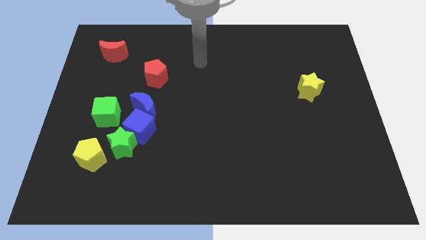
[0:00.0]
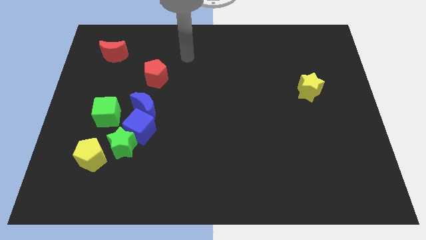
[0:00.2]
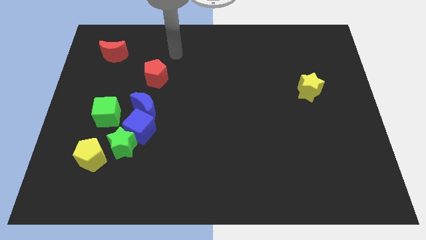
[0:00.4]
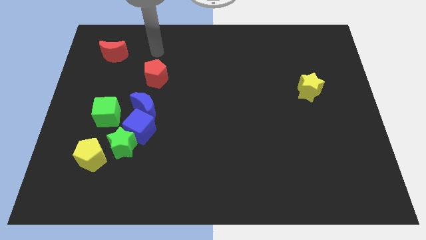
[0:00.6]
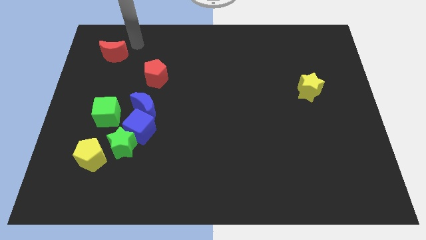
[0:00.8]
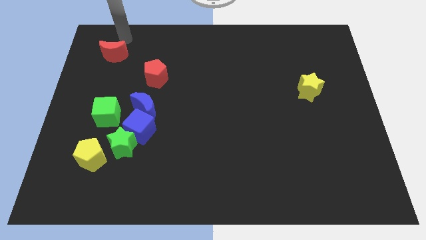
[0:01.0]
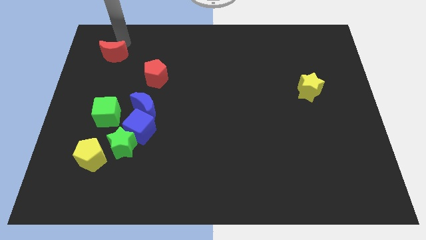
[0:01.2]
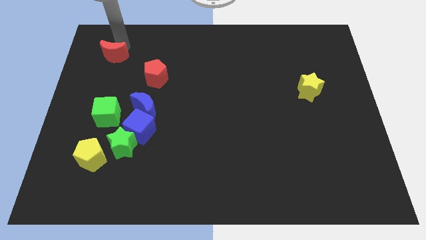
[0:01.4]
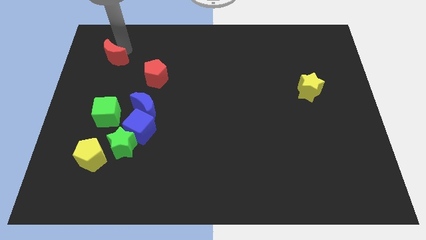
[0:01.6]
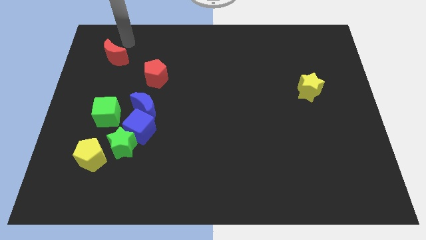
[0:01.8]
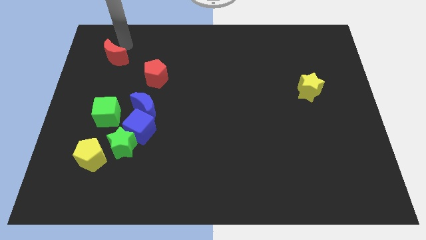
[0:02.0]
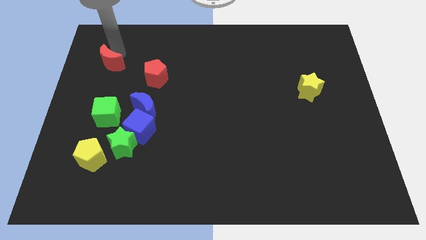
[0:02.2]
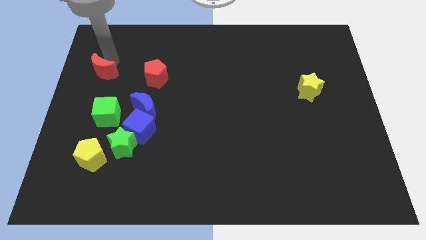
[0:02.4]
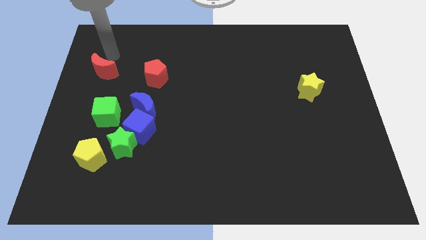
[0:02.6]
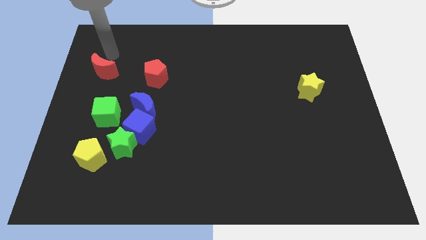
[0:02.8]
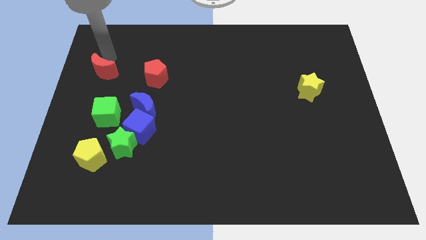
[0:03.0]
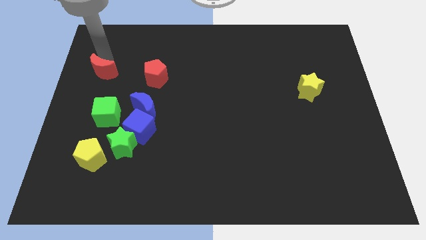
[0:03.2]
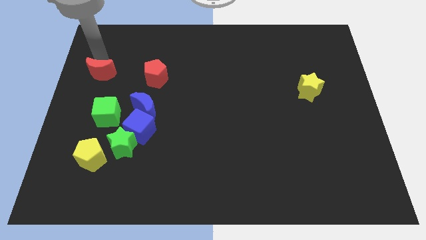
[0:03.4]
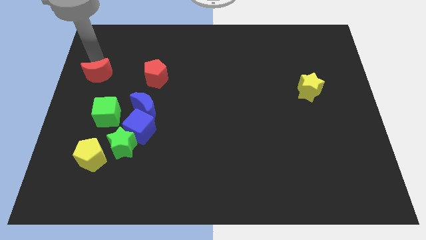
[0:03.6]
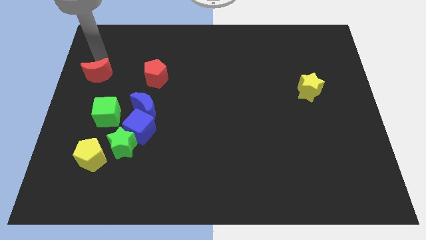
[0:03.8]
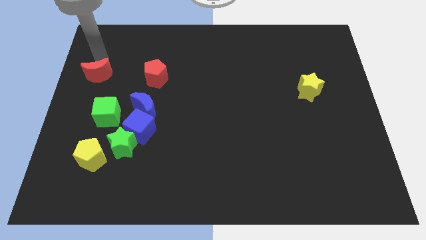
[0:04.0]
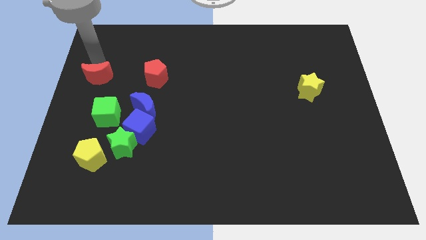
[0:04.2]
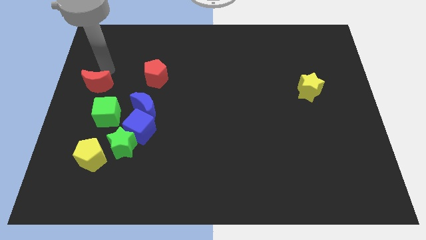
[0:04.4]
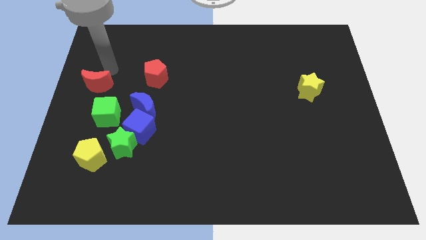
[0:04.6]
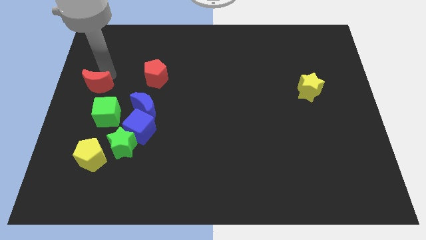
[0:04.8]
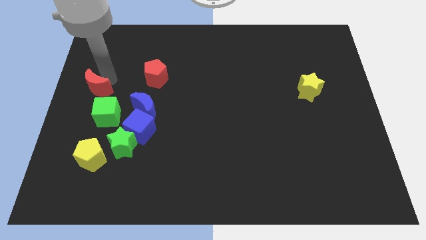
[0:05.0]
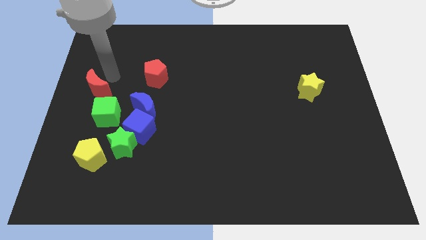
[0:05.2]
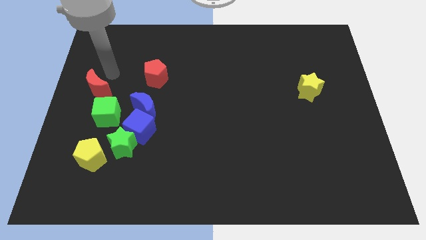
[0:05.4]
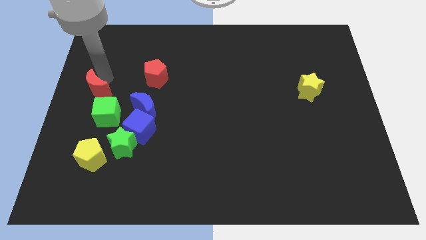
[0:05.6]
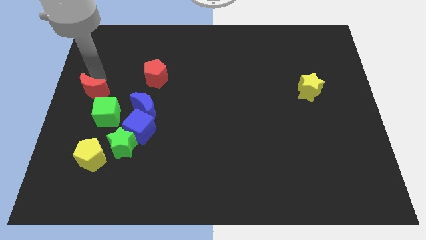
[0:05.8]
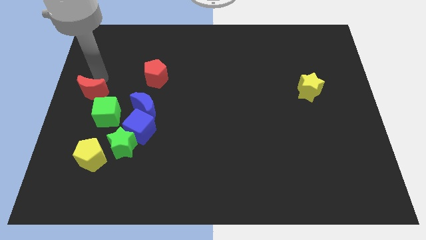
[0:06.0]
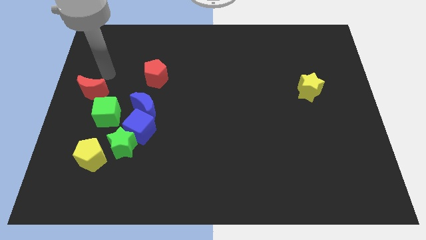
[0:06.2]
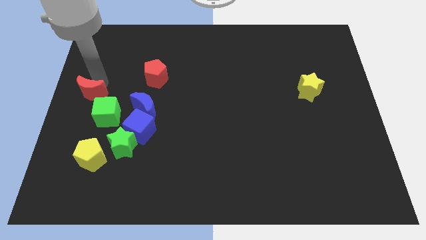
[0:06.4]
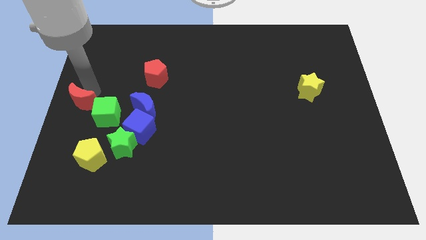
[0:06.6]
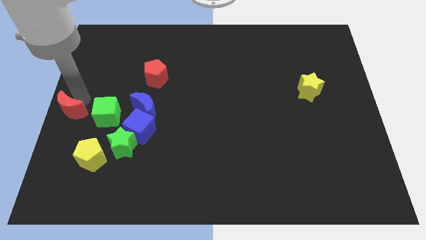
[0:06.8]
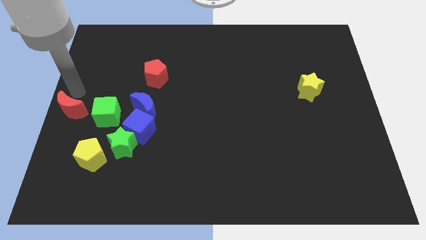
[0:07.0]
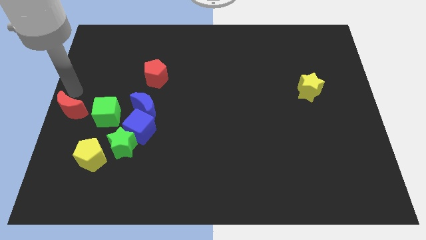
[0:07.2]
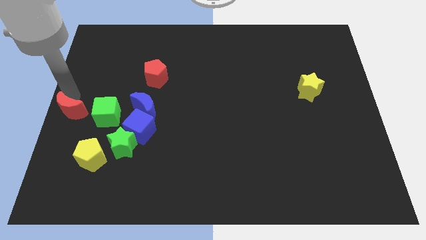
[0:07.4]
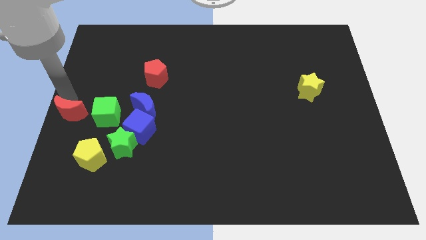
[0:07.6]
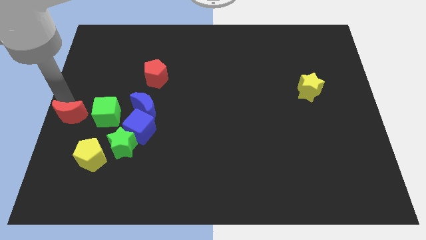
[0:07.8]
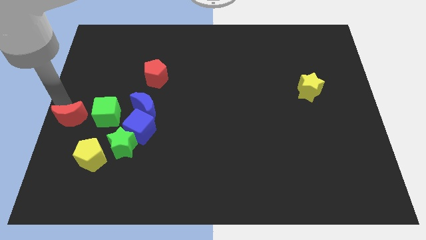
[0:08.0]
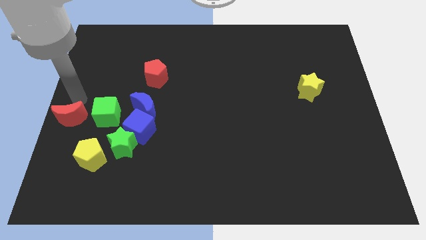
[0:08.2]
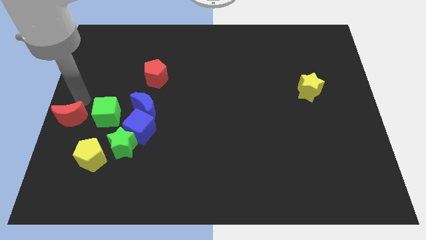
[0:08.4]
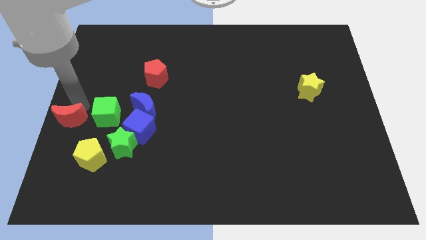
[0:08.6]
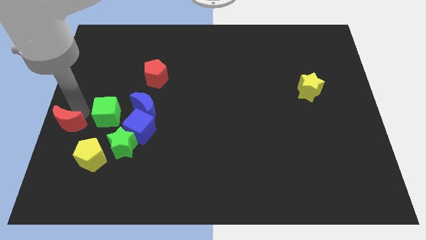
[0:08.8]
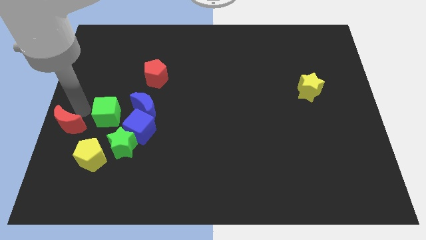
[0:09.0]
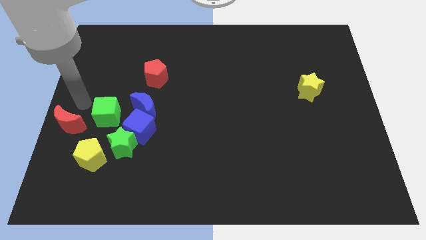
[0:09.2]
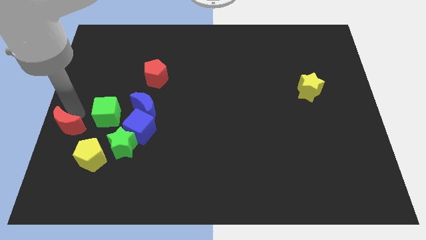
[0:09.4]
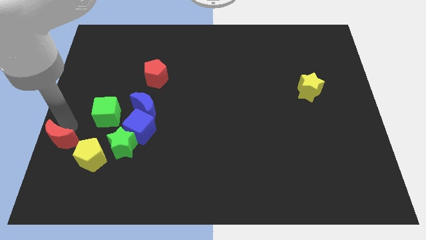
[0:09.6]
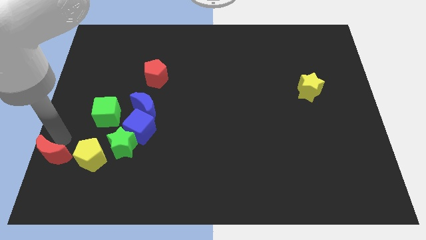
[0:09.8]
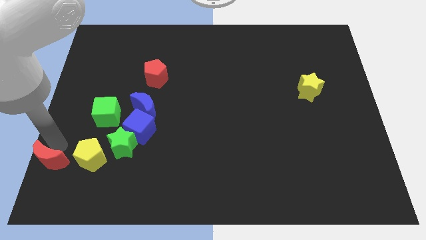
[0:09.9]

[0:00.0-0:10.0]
push the red moon to the bottom left of the board

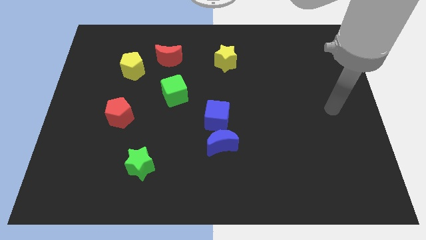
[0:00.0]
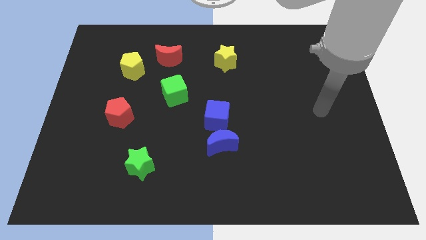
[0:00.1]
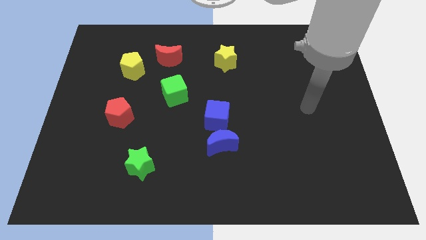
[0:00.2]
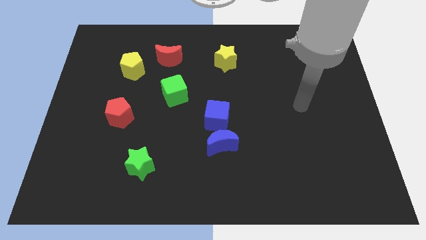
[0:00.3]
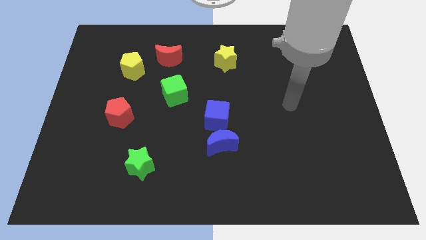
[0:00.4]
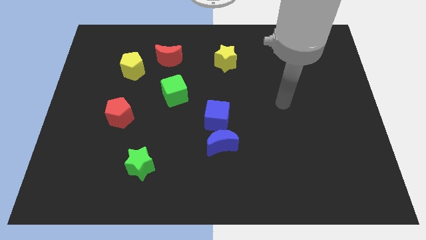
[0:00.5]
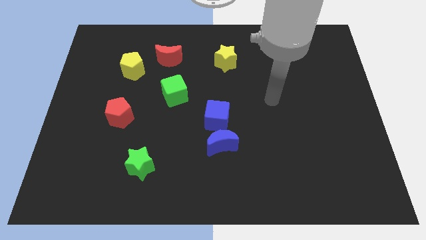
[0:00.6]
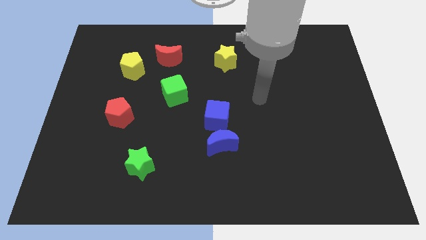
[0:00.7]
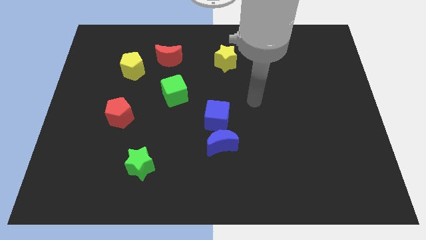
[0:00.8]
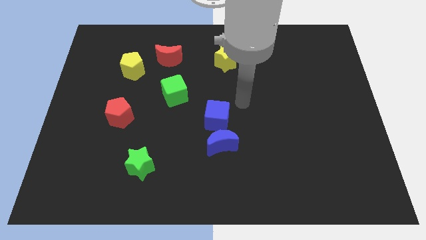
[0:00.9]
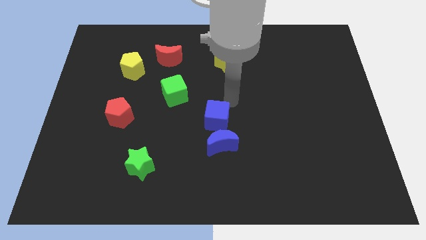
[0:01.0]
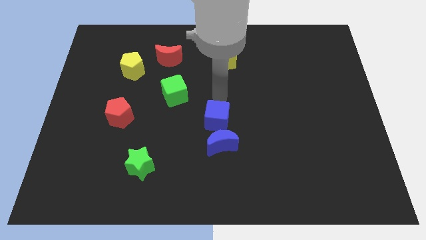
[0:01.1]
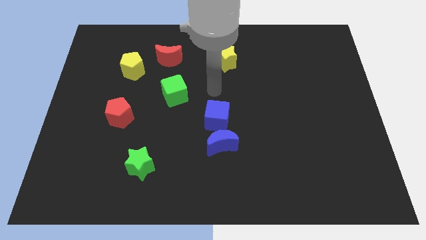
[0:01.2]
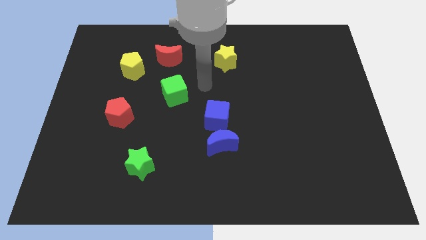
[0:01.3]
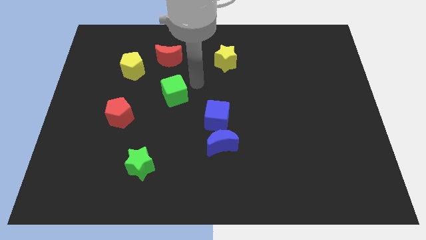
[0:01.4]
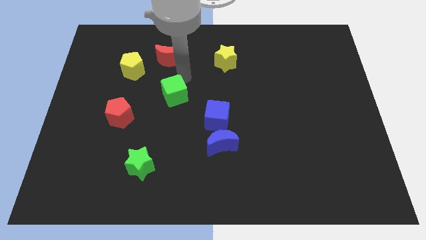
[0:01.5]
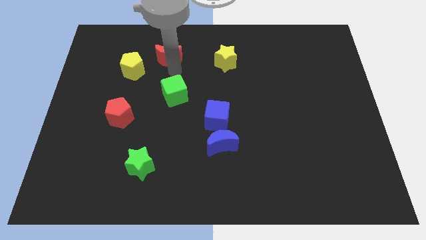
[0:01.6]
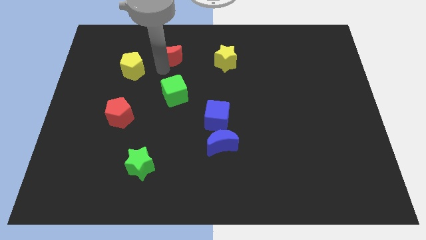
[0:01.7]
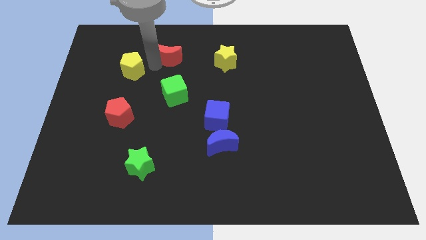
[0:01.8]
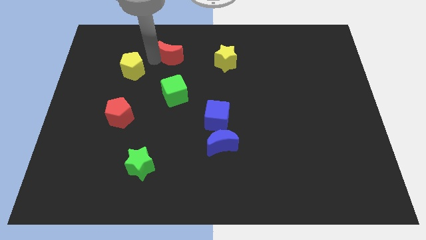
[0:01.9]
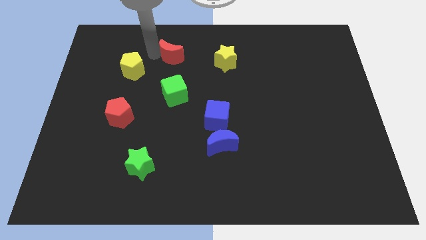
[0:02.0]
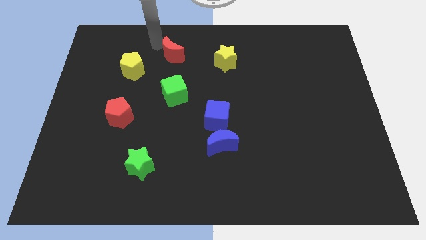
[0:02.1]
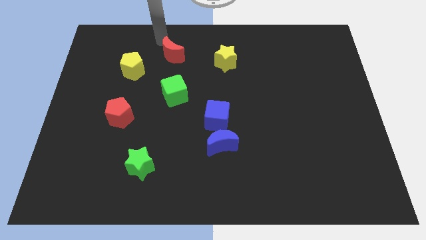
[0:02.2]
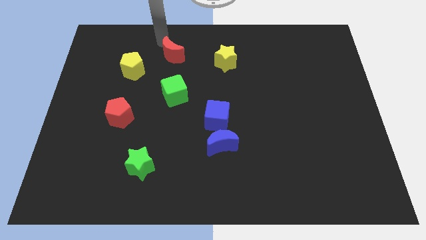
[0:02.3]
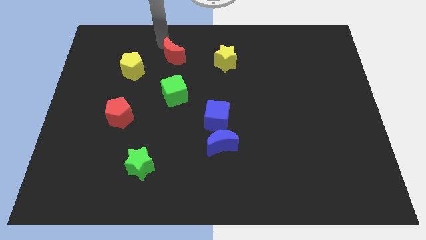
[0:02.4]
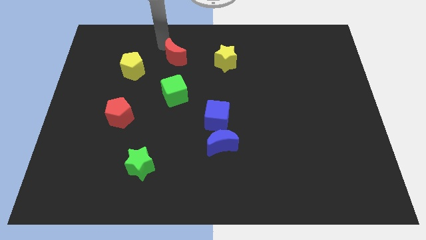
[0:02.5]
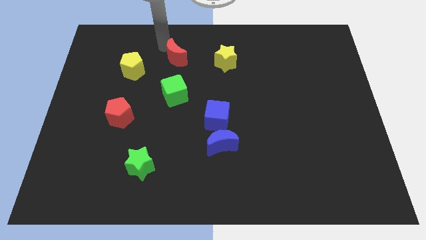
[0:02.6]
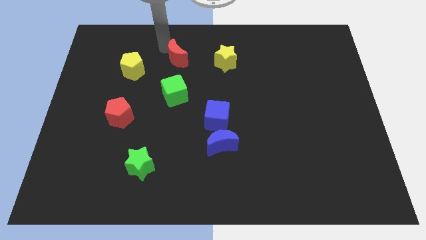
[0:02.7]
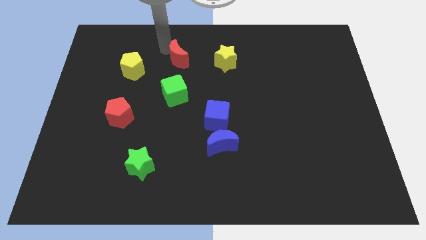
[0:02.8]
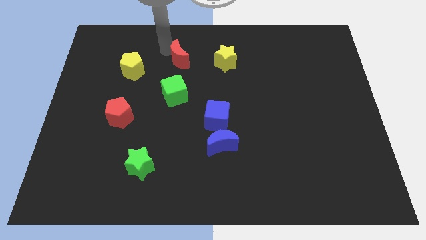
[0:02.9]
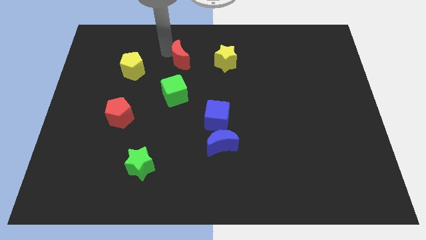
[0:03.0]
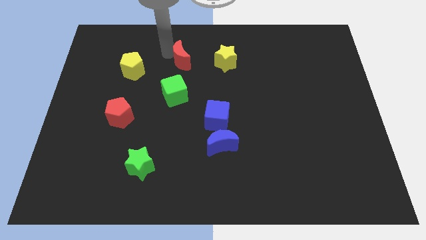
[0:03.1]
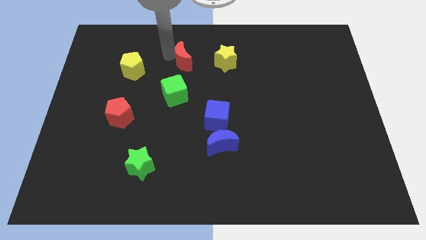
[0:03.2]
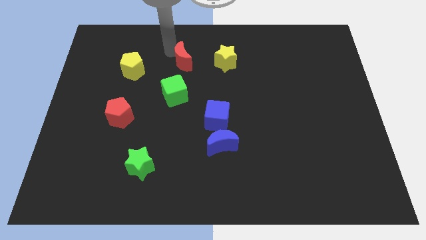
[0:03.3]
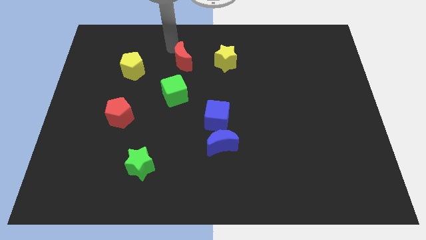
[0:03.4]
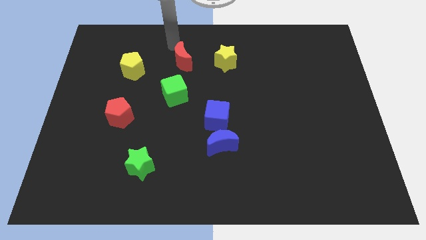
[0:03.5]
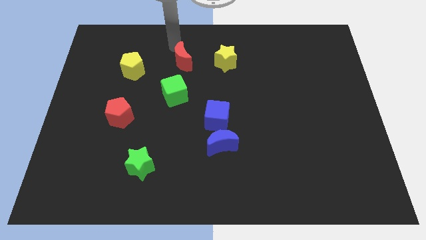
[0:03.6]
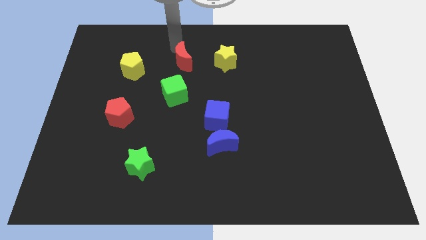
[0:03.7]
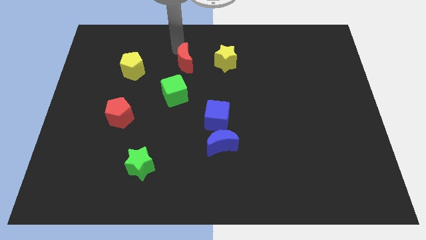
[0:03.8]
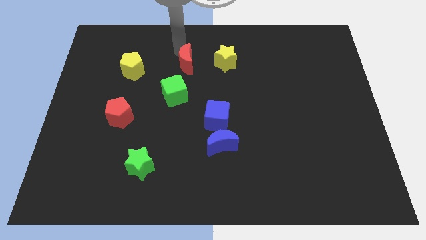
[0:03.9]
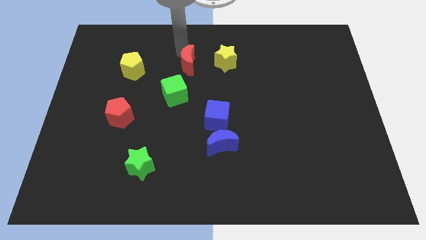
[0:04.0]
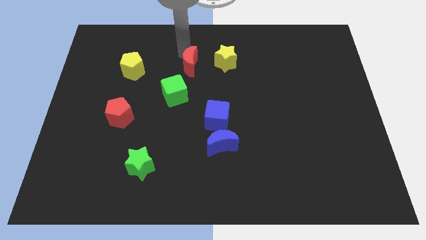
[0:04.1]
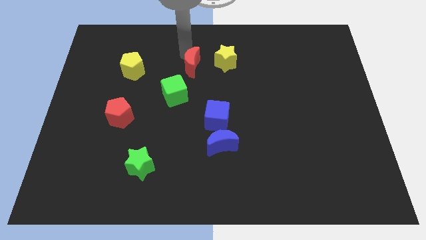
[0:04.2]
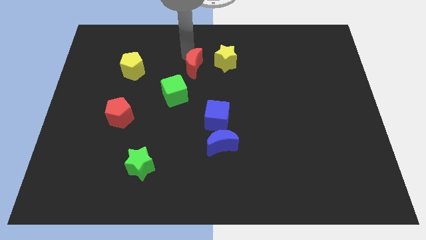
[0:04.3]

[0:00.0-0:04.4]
move the red moon to the center of the board
